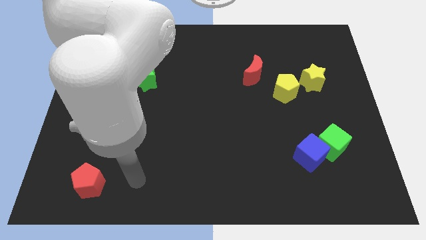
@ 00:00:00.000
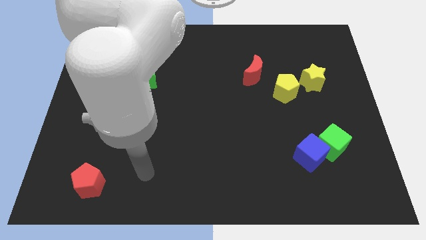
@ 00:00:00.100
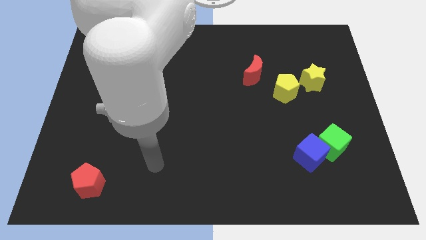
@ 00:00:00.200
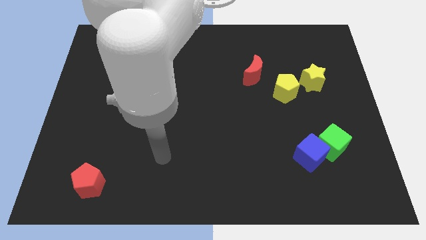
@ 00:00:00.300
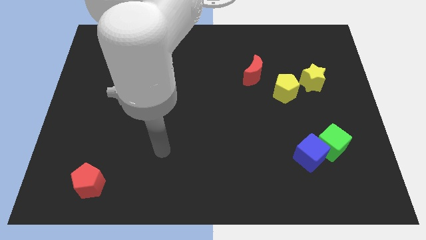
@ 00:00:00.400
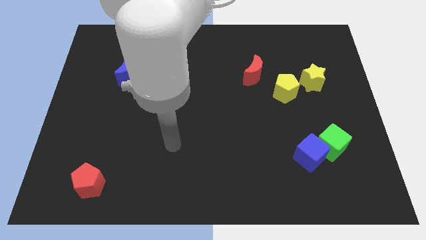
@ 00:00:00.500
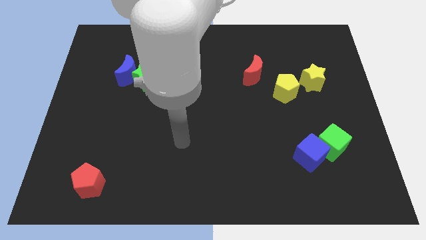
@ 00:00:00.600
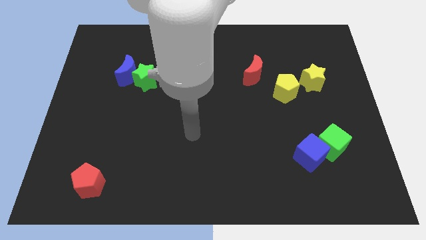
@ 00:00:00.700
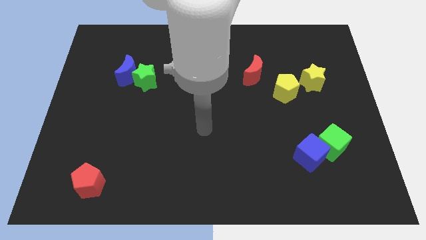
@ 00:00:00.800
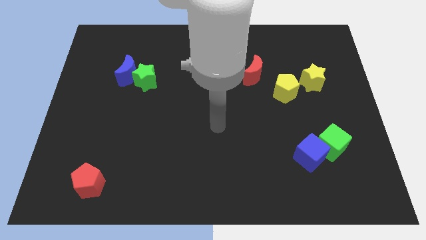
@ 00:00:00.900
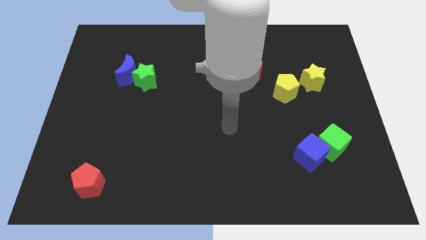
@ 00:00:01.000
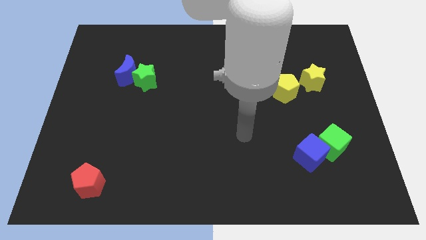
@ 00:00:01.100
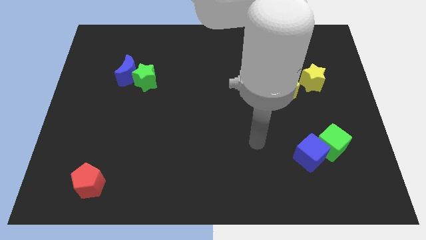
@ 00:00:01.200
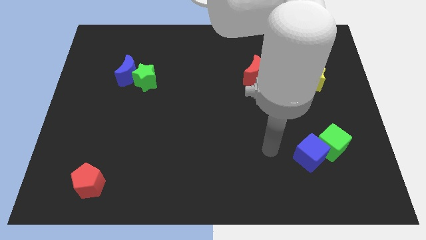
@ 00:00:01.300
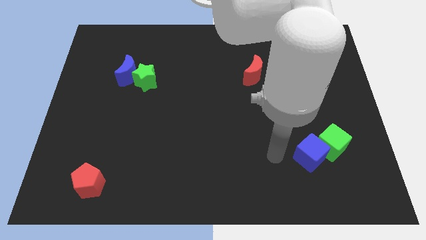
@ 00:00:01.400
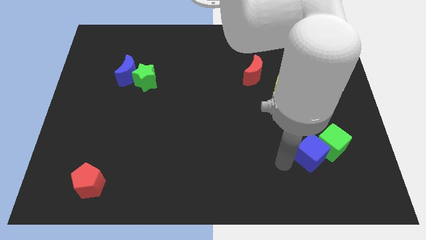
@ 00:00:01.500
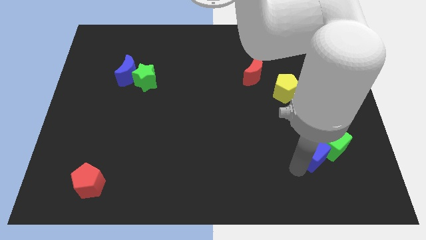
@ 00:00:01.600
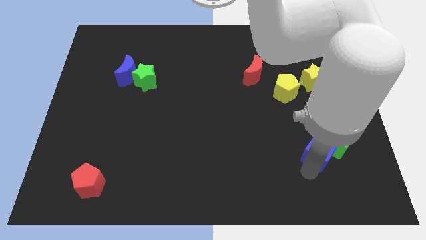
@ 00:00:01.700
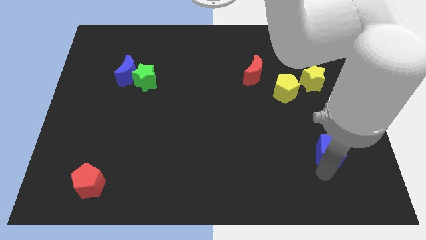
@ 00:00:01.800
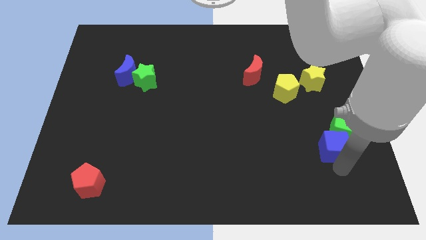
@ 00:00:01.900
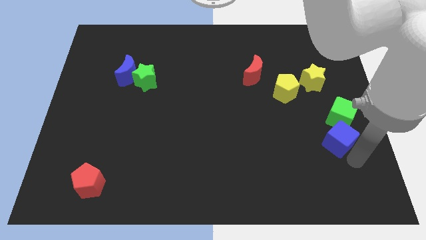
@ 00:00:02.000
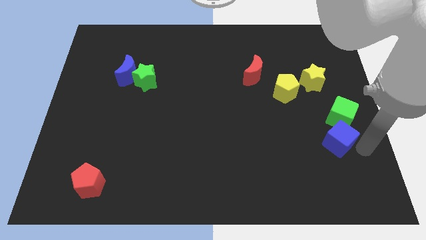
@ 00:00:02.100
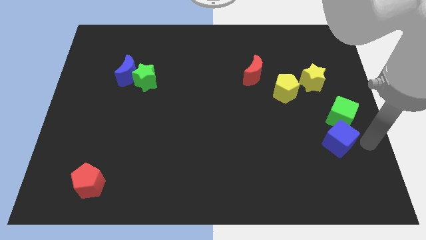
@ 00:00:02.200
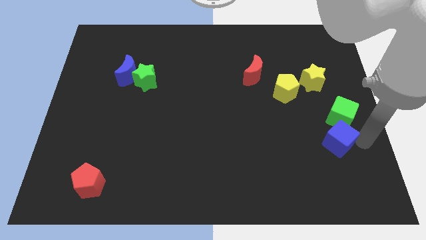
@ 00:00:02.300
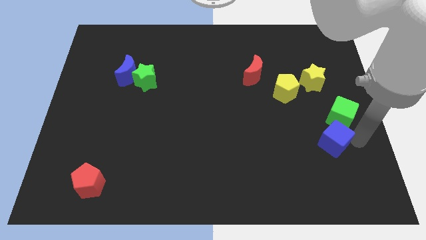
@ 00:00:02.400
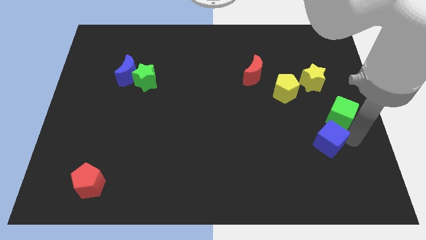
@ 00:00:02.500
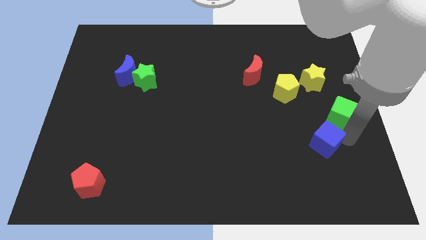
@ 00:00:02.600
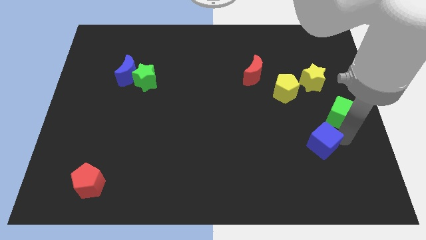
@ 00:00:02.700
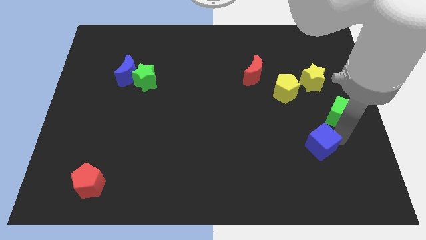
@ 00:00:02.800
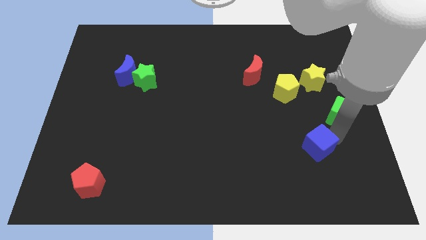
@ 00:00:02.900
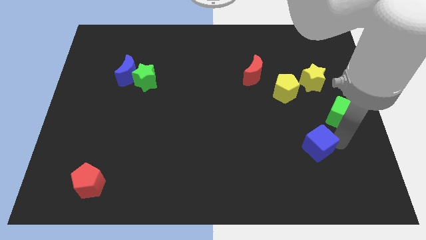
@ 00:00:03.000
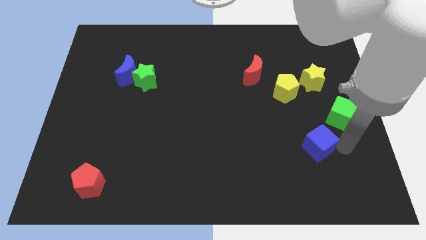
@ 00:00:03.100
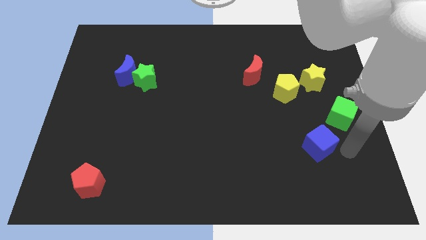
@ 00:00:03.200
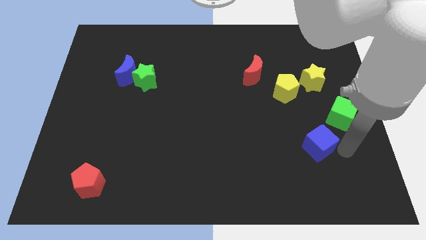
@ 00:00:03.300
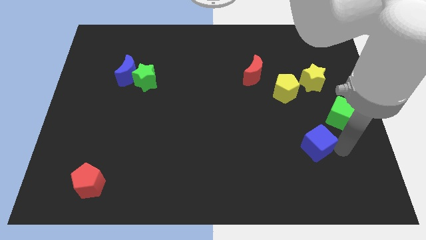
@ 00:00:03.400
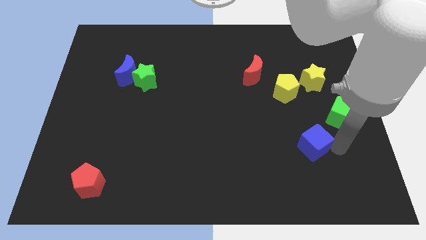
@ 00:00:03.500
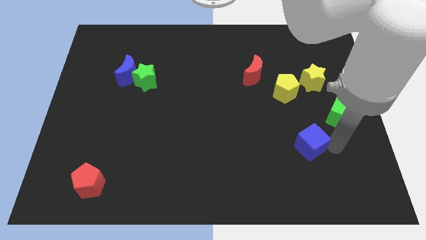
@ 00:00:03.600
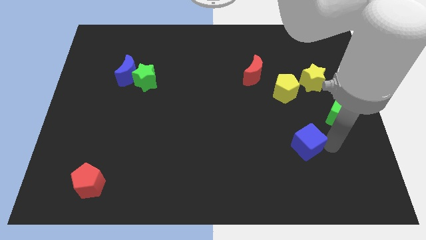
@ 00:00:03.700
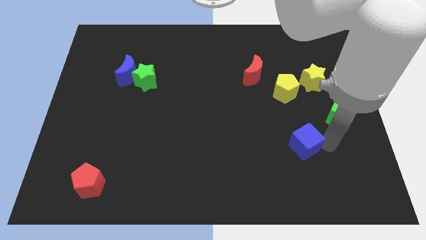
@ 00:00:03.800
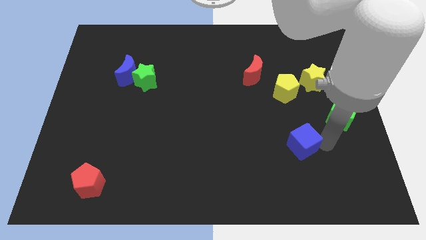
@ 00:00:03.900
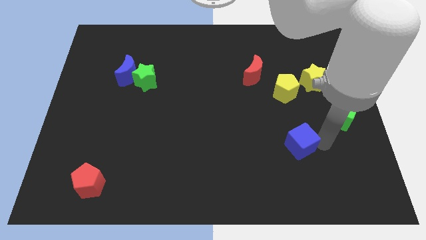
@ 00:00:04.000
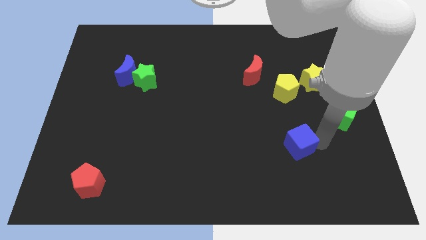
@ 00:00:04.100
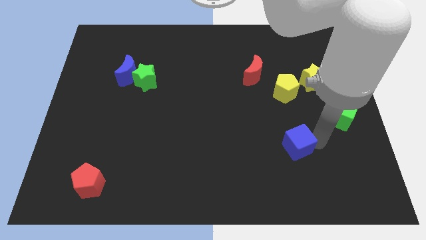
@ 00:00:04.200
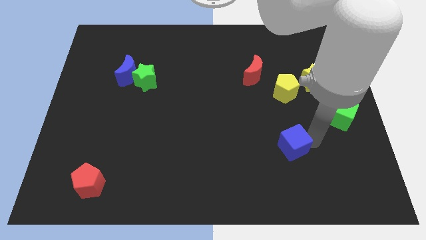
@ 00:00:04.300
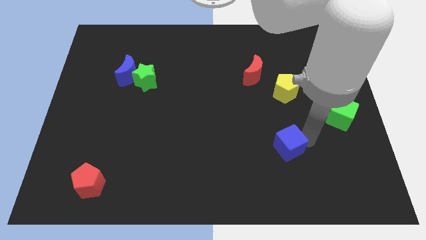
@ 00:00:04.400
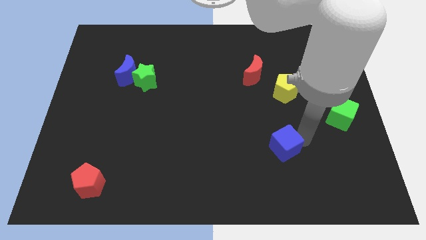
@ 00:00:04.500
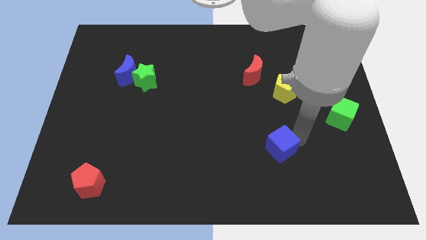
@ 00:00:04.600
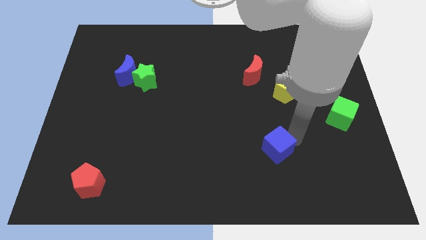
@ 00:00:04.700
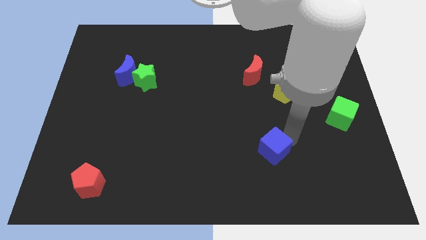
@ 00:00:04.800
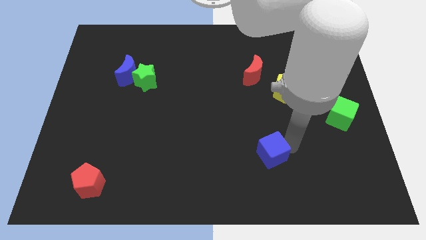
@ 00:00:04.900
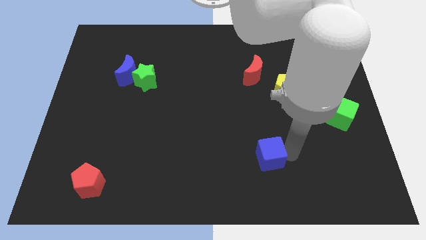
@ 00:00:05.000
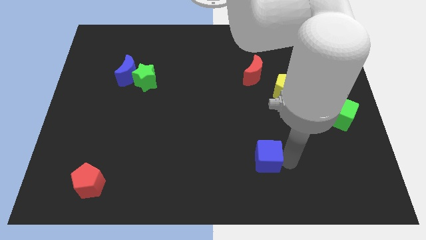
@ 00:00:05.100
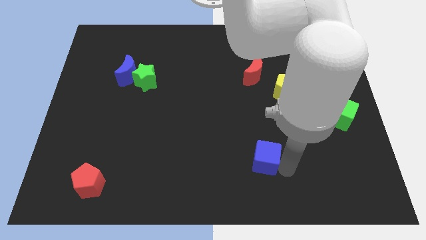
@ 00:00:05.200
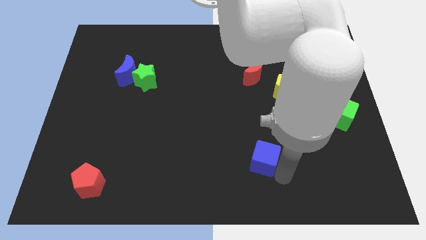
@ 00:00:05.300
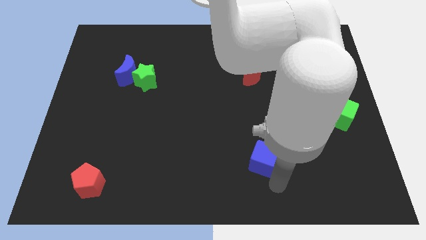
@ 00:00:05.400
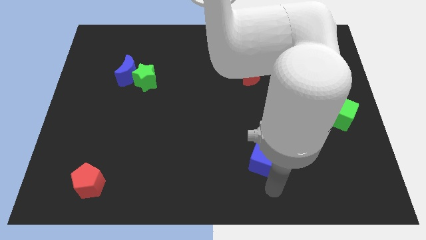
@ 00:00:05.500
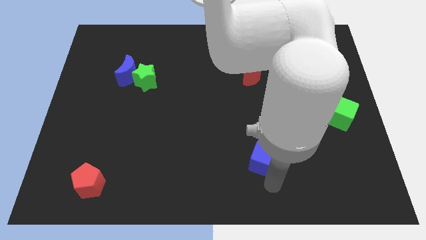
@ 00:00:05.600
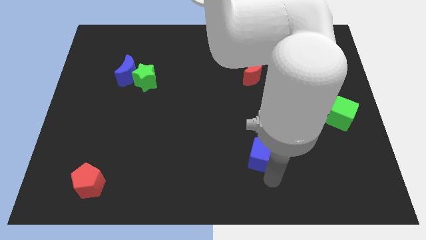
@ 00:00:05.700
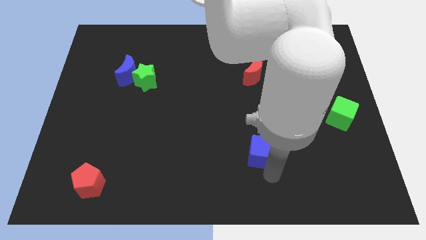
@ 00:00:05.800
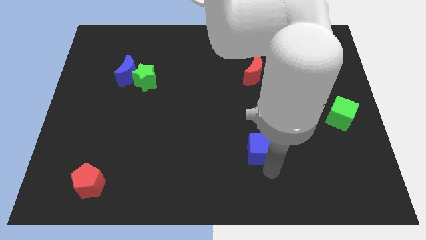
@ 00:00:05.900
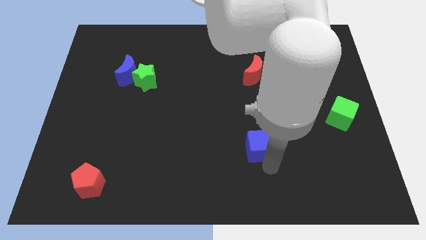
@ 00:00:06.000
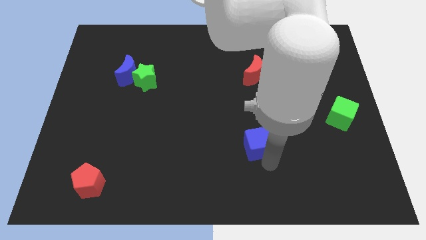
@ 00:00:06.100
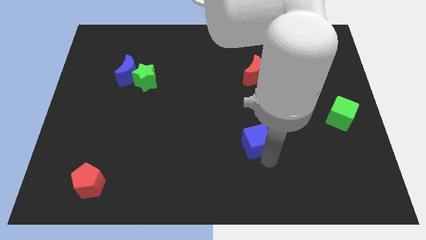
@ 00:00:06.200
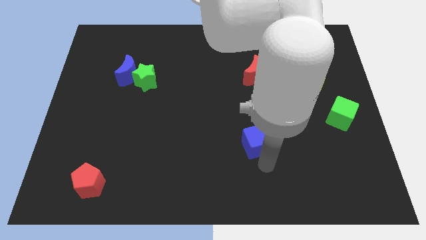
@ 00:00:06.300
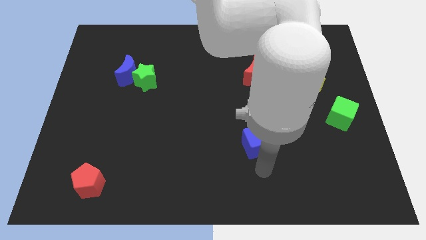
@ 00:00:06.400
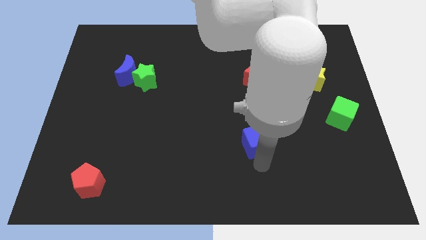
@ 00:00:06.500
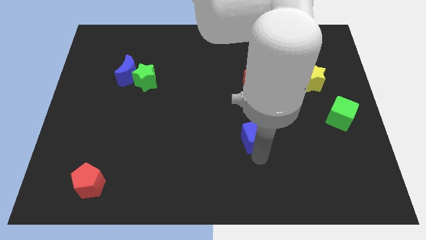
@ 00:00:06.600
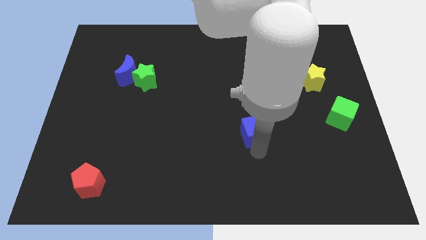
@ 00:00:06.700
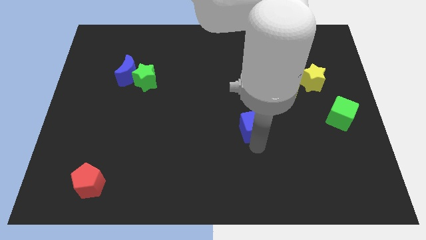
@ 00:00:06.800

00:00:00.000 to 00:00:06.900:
slide the blue cube to the center
